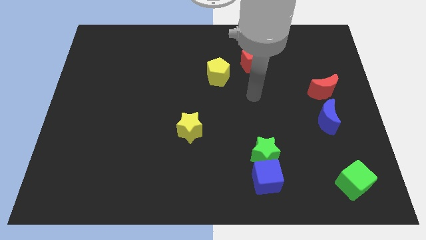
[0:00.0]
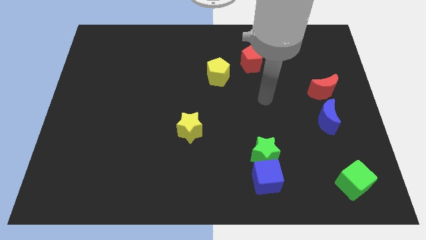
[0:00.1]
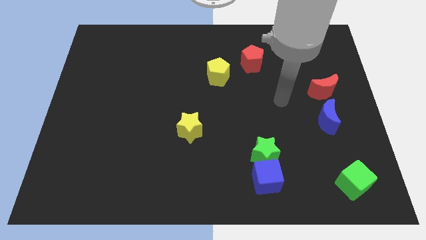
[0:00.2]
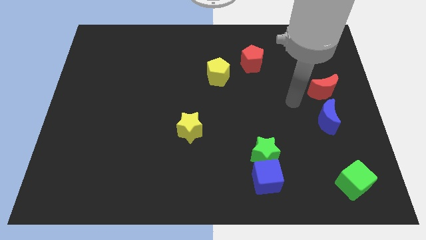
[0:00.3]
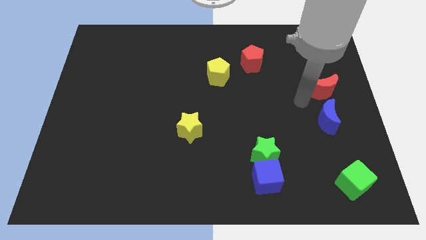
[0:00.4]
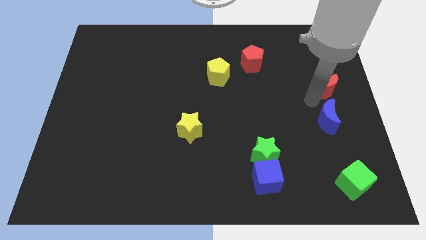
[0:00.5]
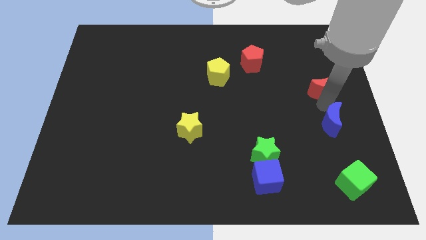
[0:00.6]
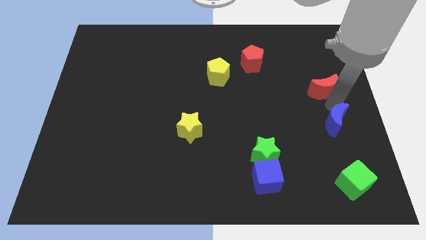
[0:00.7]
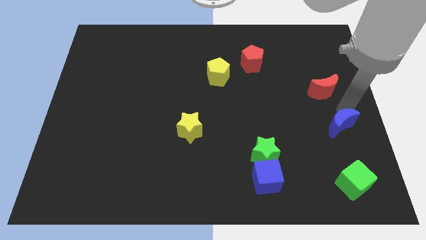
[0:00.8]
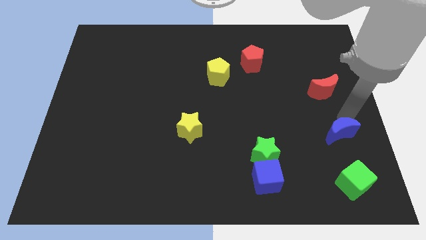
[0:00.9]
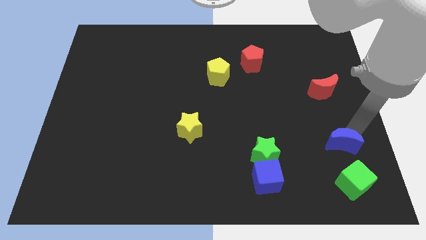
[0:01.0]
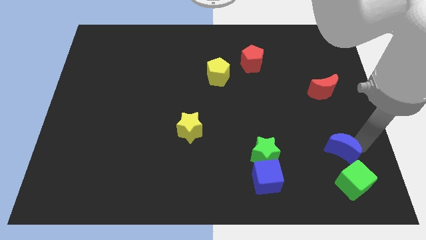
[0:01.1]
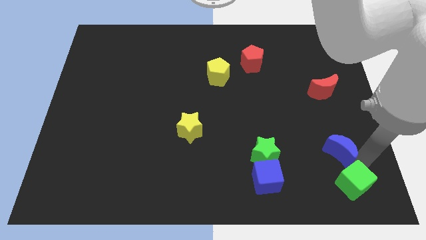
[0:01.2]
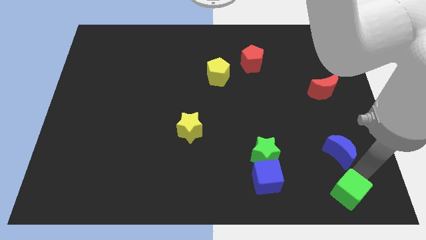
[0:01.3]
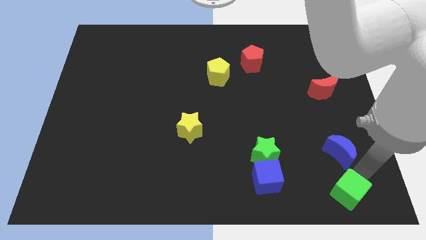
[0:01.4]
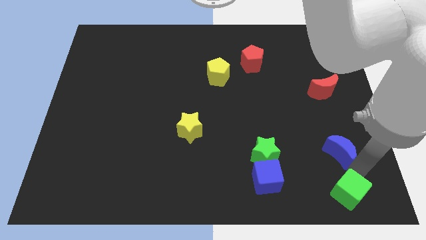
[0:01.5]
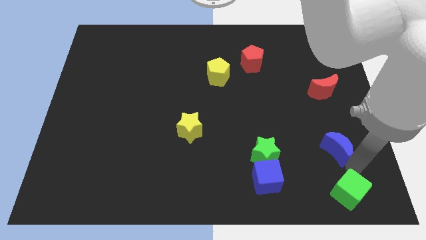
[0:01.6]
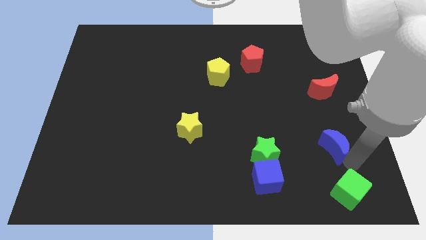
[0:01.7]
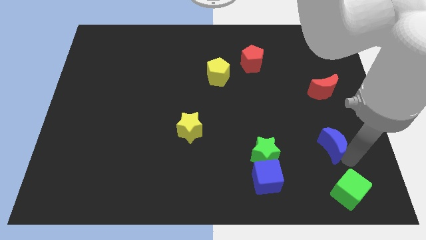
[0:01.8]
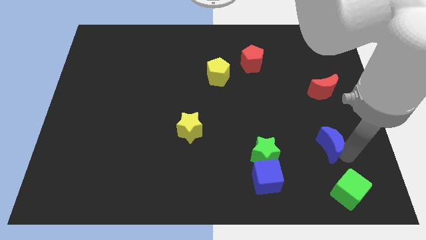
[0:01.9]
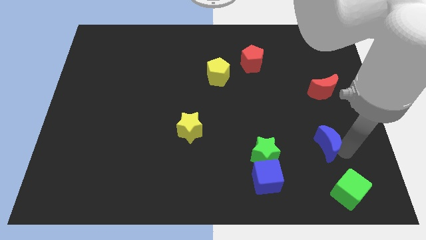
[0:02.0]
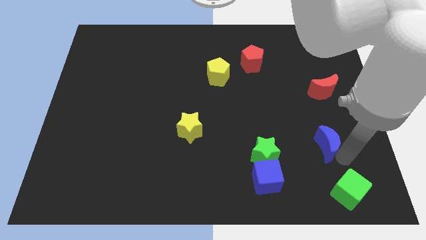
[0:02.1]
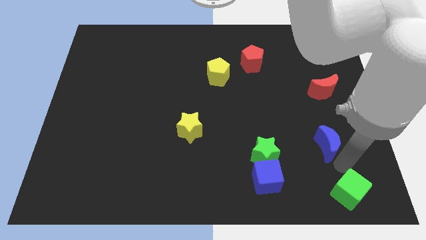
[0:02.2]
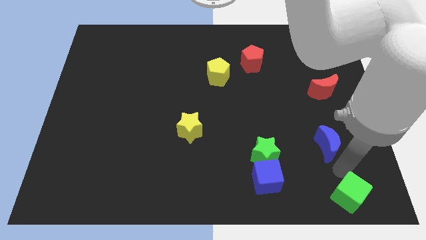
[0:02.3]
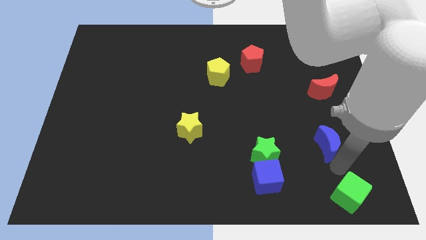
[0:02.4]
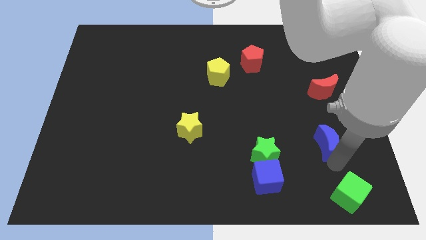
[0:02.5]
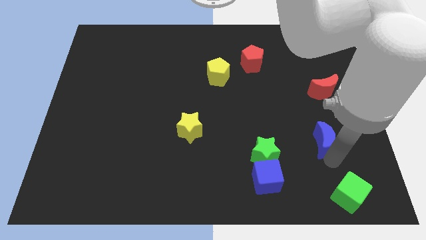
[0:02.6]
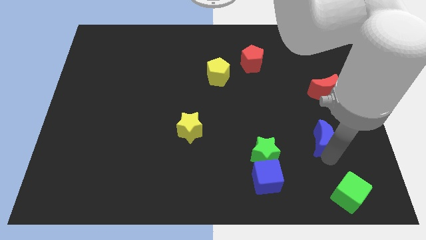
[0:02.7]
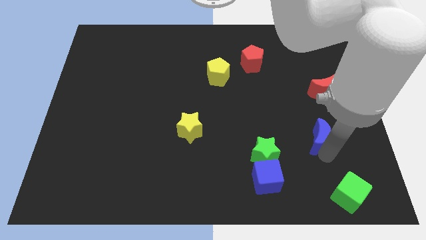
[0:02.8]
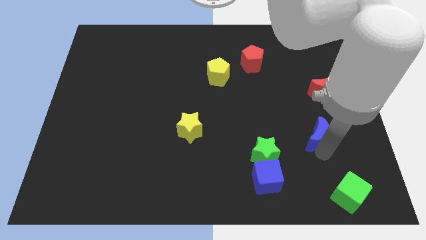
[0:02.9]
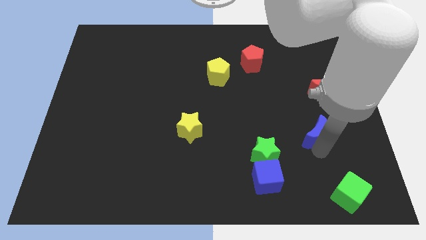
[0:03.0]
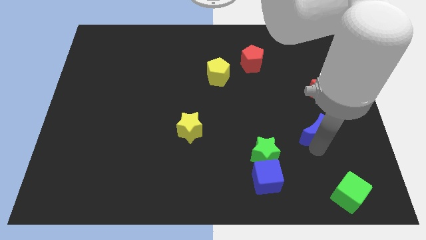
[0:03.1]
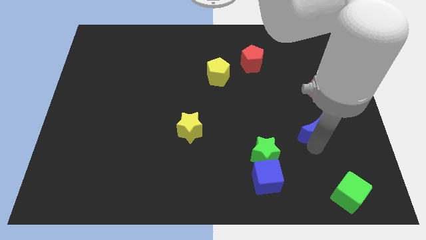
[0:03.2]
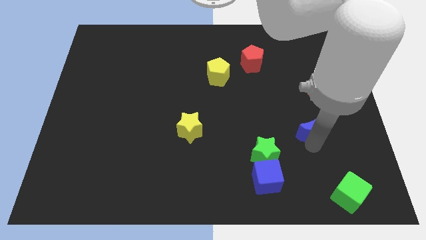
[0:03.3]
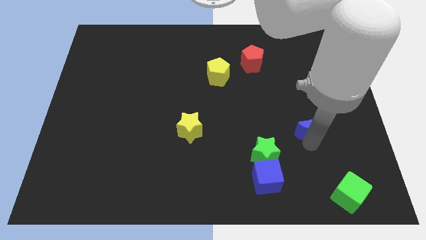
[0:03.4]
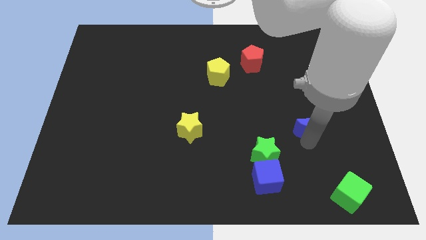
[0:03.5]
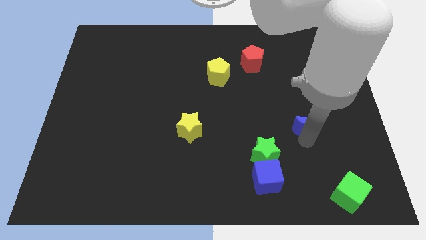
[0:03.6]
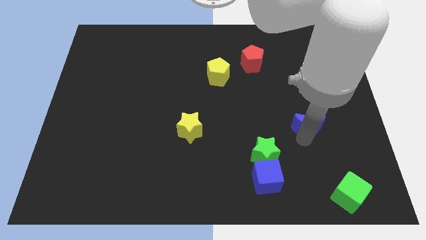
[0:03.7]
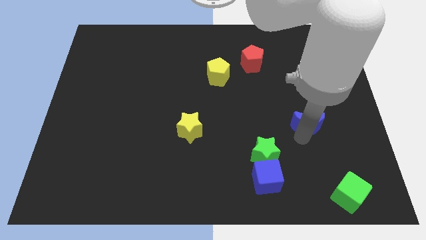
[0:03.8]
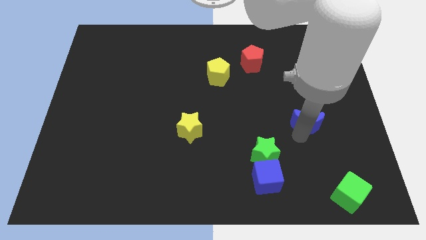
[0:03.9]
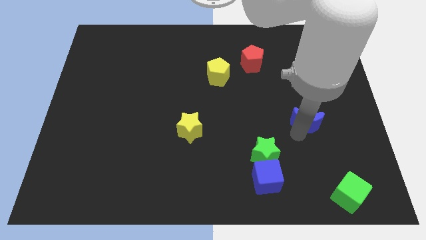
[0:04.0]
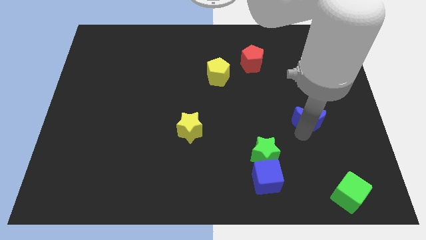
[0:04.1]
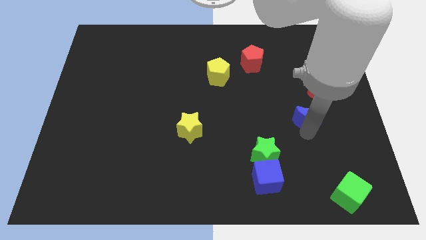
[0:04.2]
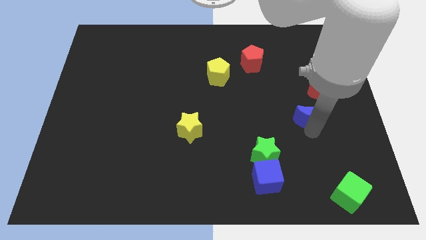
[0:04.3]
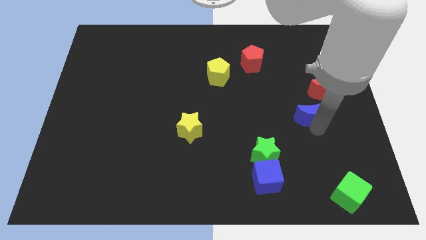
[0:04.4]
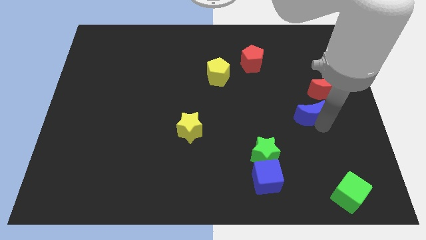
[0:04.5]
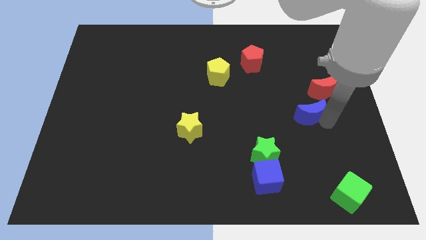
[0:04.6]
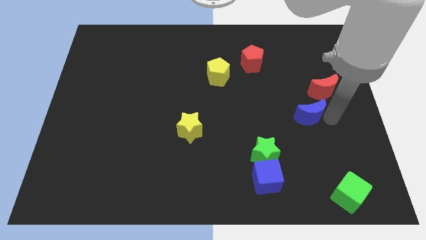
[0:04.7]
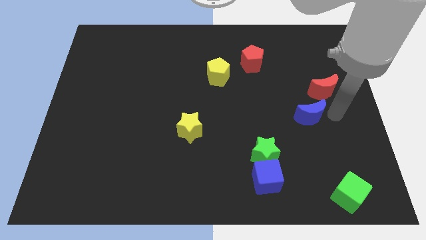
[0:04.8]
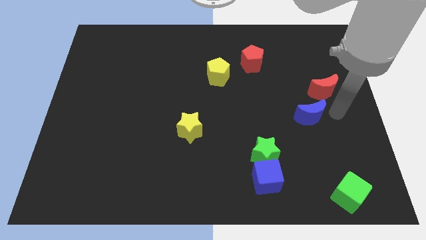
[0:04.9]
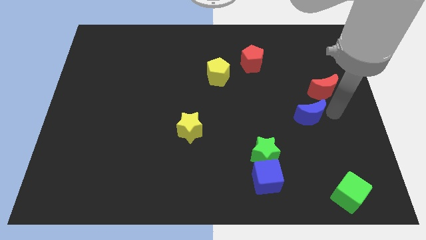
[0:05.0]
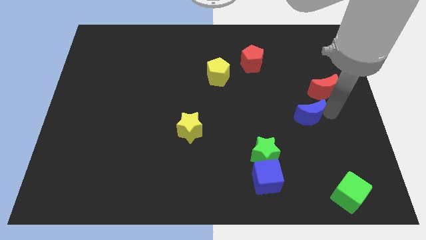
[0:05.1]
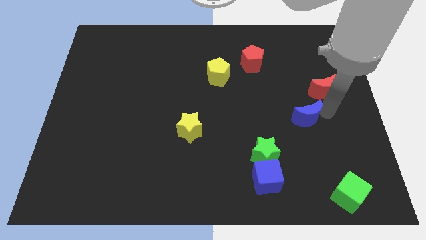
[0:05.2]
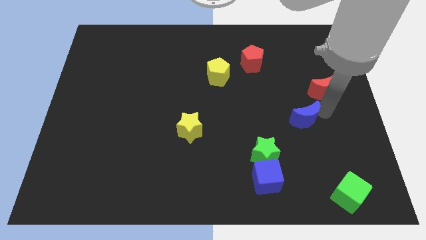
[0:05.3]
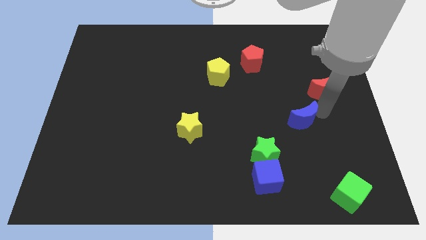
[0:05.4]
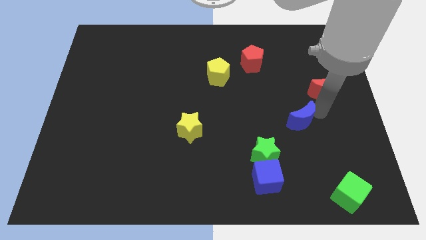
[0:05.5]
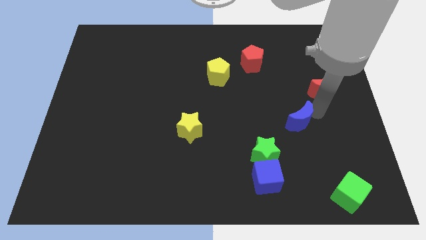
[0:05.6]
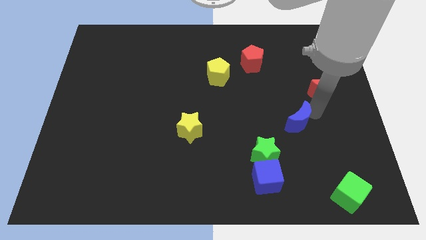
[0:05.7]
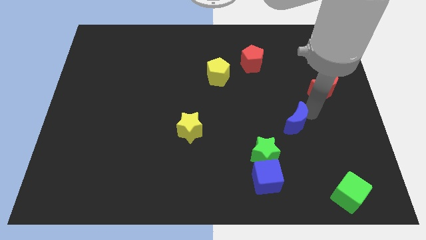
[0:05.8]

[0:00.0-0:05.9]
move the blue moon left a little

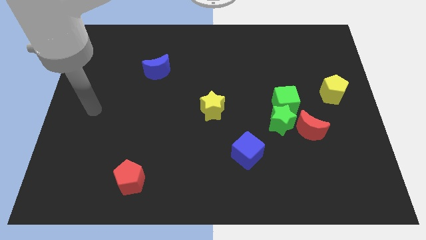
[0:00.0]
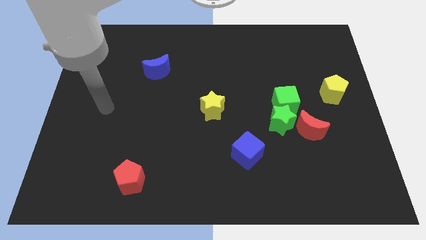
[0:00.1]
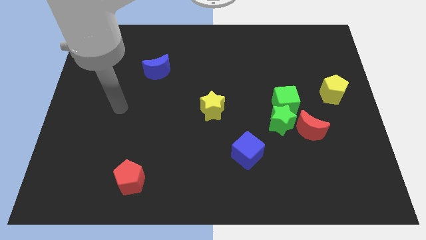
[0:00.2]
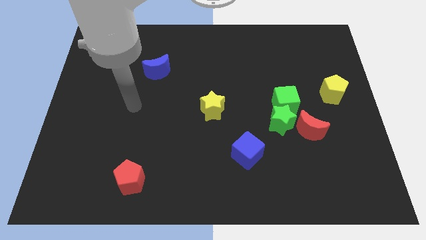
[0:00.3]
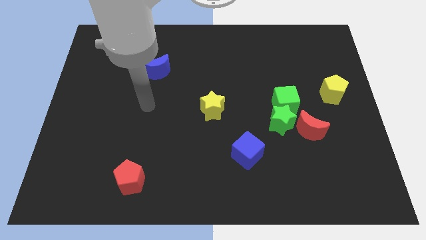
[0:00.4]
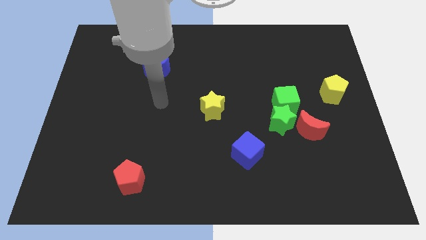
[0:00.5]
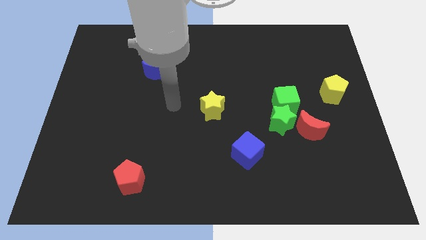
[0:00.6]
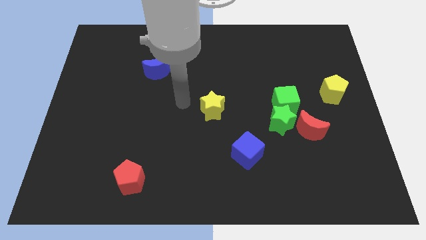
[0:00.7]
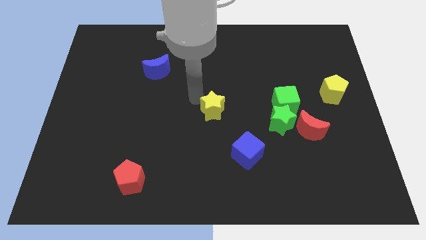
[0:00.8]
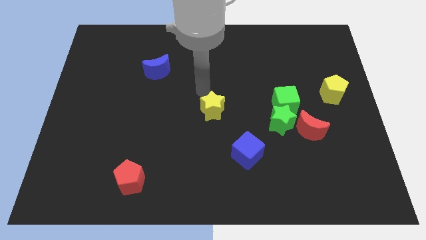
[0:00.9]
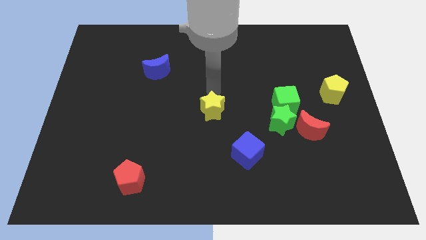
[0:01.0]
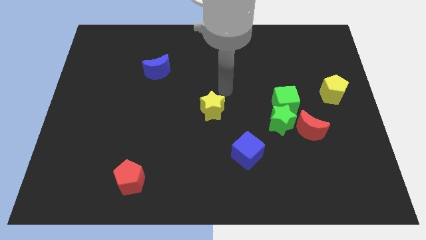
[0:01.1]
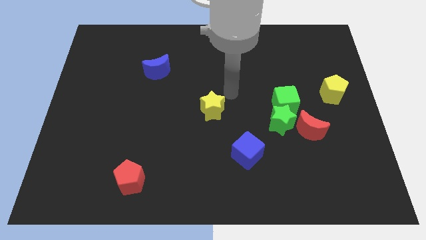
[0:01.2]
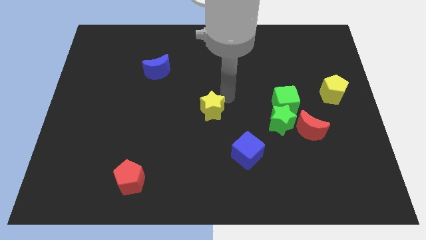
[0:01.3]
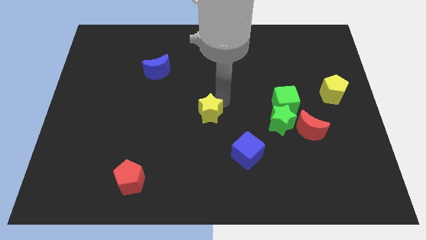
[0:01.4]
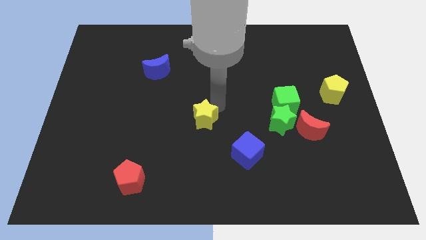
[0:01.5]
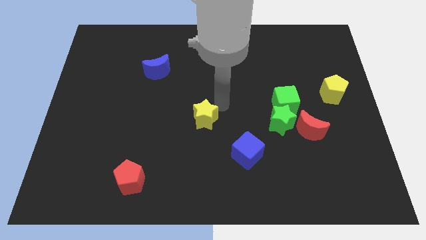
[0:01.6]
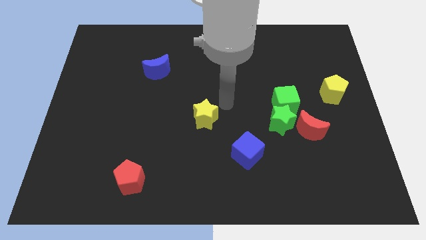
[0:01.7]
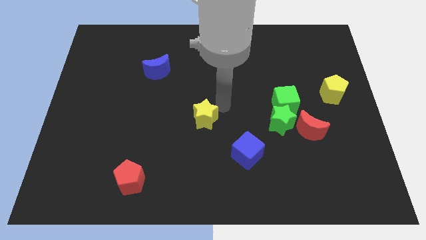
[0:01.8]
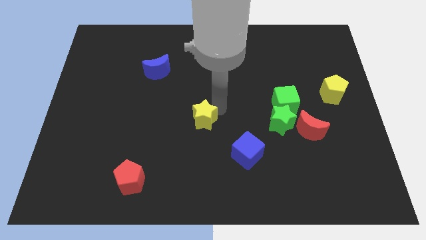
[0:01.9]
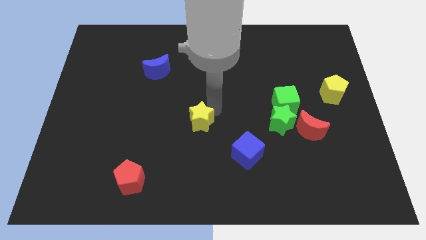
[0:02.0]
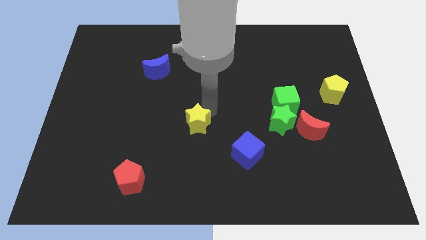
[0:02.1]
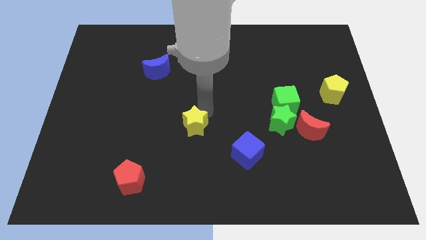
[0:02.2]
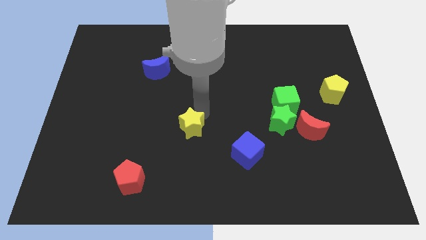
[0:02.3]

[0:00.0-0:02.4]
push the yellow star downwards and left slightly
